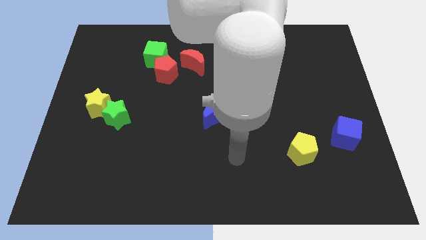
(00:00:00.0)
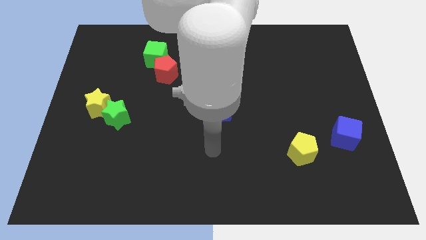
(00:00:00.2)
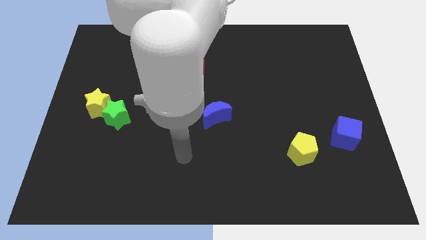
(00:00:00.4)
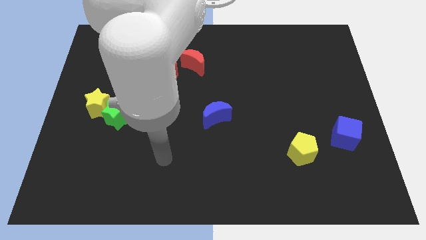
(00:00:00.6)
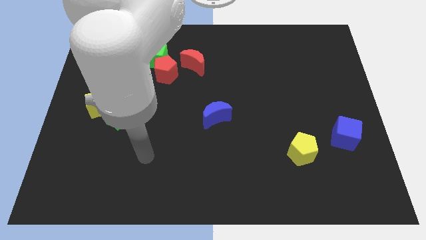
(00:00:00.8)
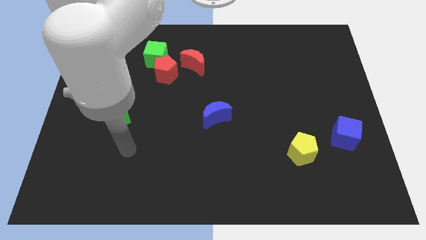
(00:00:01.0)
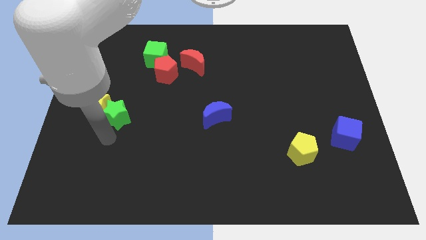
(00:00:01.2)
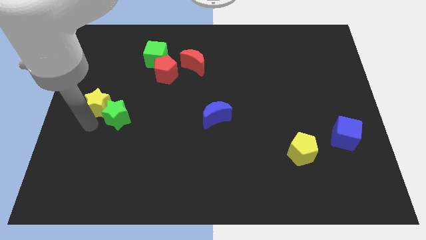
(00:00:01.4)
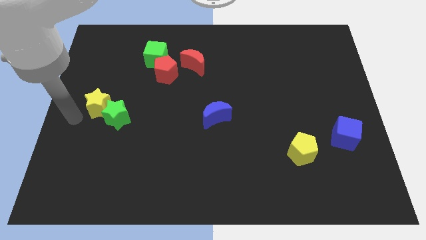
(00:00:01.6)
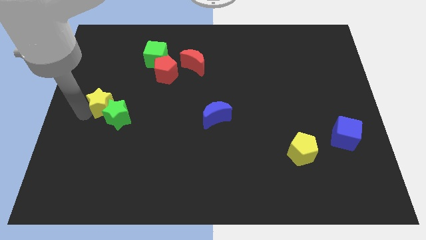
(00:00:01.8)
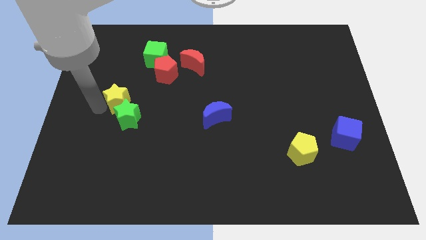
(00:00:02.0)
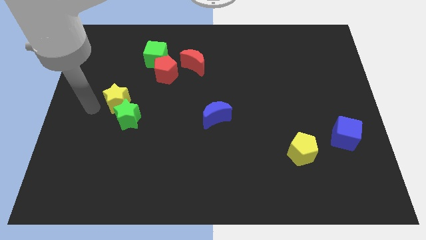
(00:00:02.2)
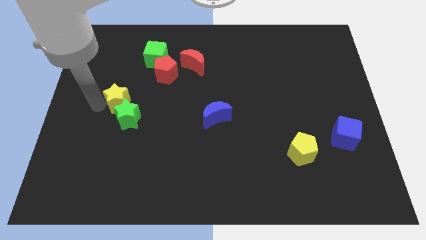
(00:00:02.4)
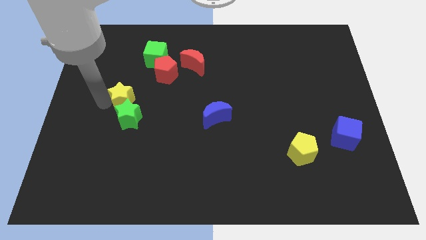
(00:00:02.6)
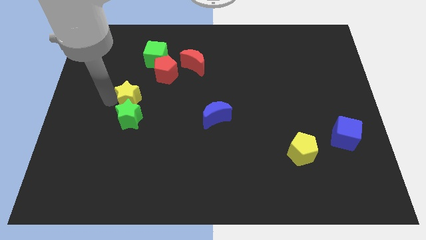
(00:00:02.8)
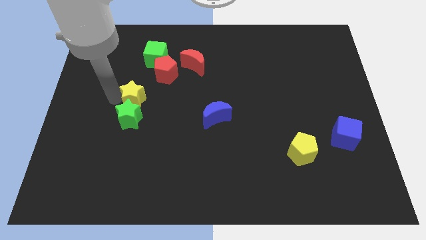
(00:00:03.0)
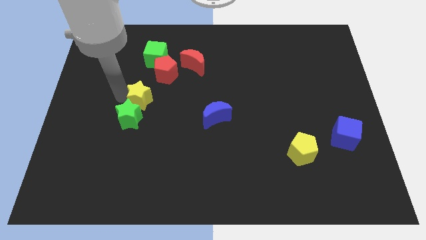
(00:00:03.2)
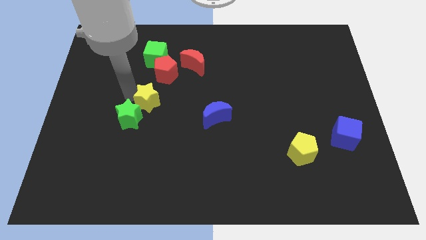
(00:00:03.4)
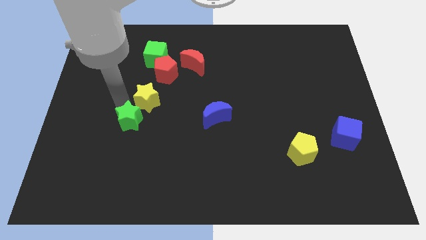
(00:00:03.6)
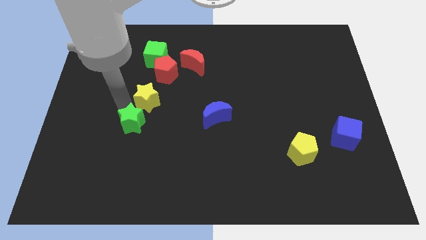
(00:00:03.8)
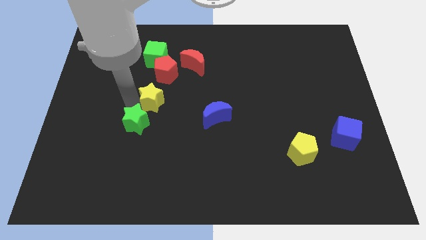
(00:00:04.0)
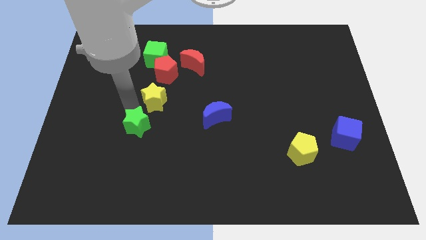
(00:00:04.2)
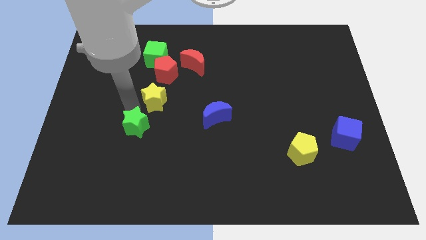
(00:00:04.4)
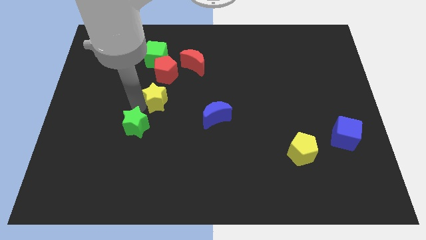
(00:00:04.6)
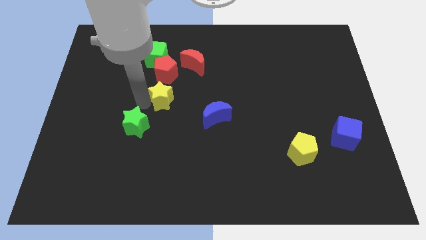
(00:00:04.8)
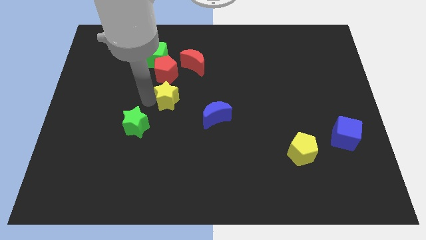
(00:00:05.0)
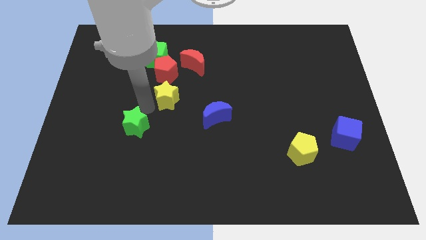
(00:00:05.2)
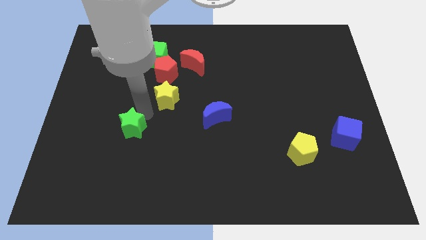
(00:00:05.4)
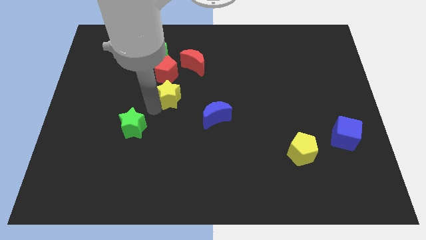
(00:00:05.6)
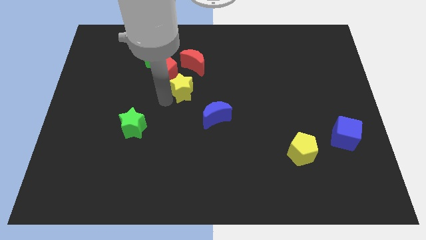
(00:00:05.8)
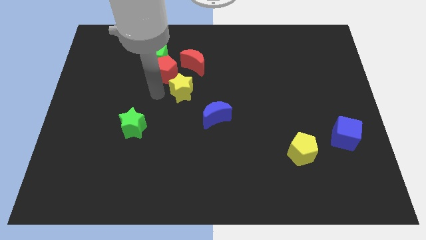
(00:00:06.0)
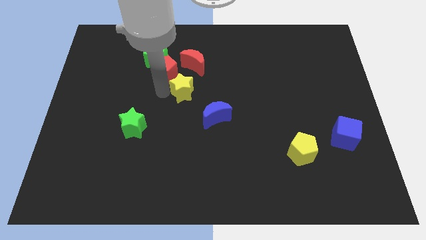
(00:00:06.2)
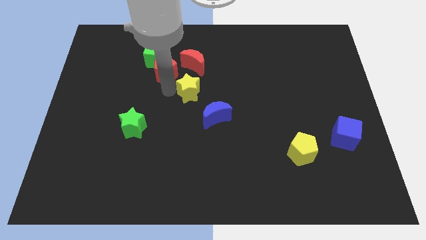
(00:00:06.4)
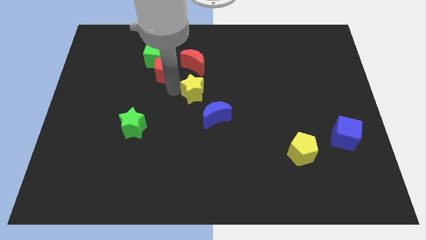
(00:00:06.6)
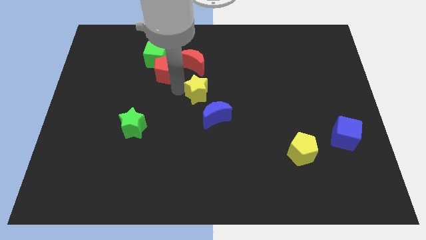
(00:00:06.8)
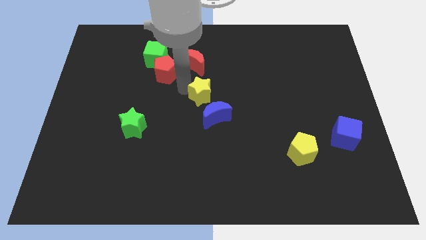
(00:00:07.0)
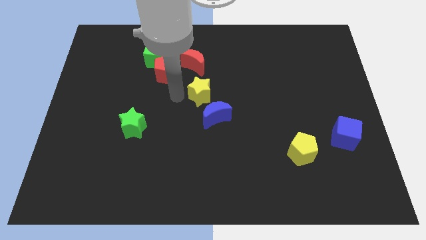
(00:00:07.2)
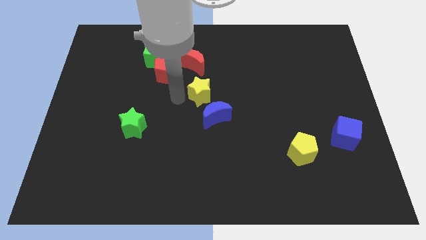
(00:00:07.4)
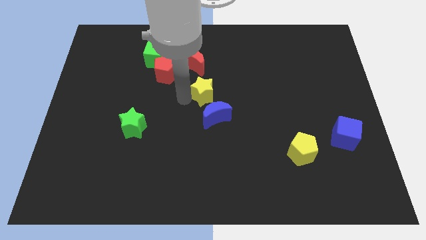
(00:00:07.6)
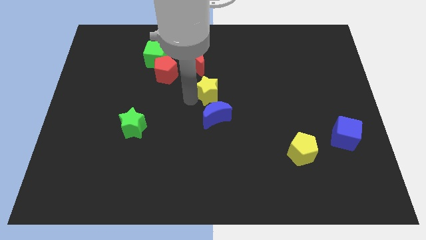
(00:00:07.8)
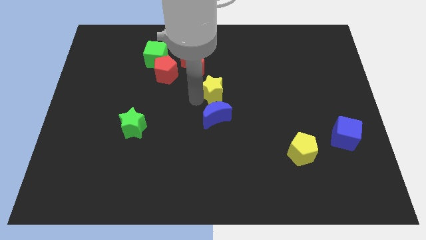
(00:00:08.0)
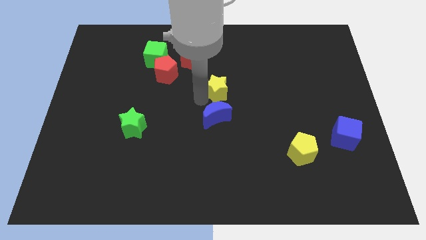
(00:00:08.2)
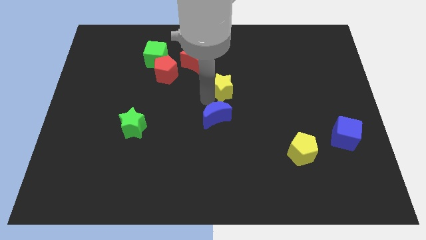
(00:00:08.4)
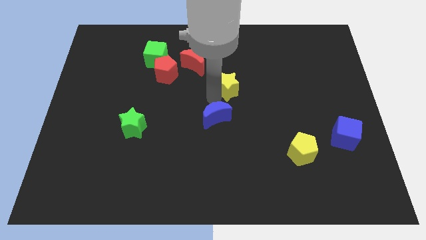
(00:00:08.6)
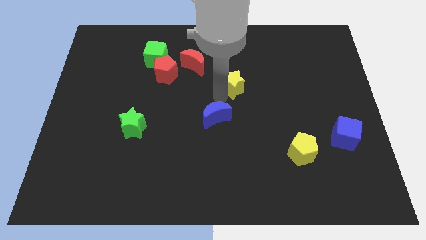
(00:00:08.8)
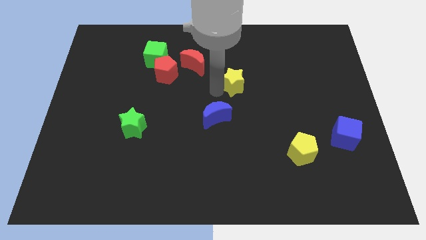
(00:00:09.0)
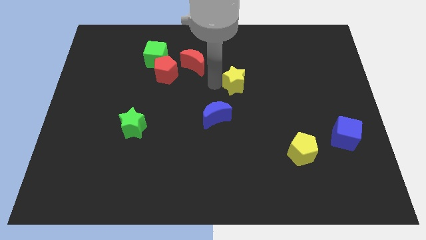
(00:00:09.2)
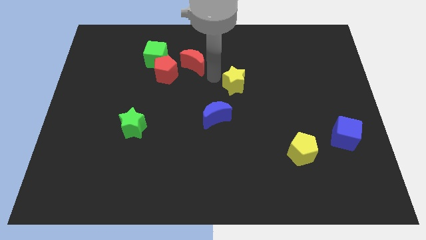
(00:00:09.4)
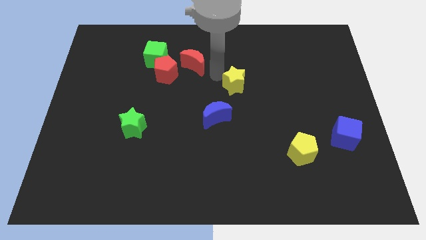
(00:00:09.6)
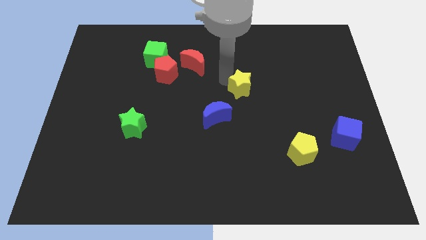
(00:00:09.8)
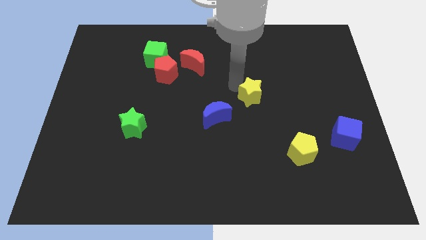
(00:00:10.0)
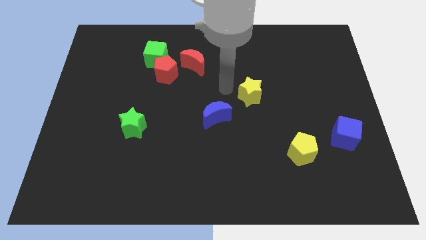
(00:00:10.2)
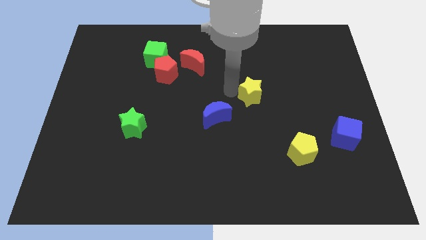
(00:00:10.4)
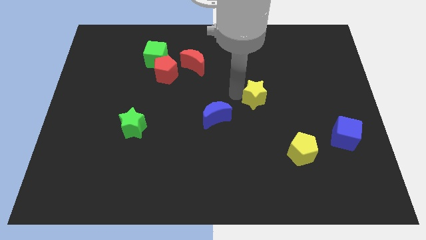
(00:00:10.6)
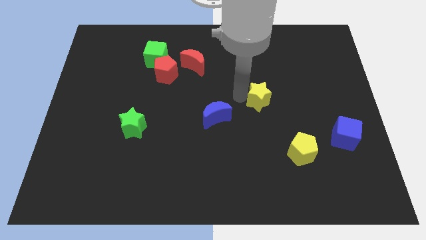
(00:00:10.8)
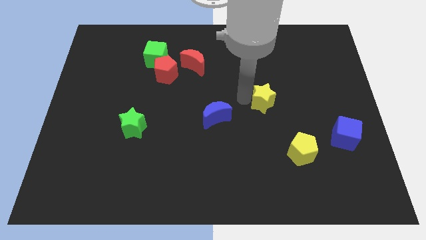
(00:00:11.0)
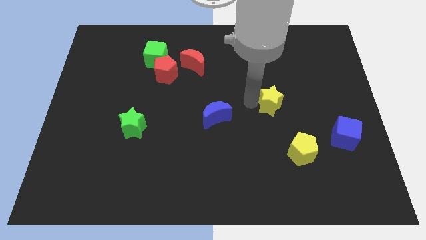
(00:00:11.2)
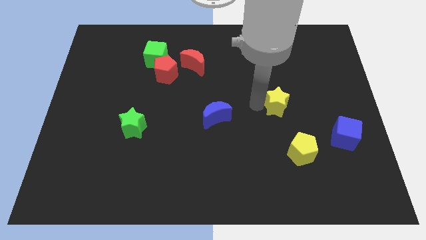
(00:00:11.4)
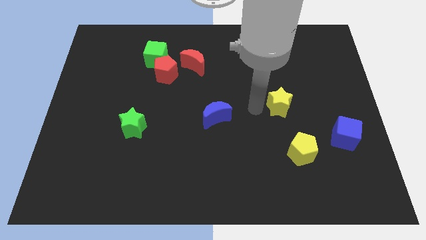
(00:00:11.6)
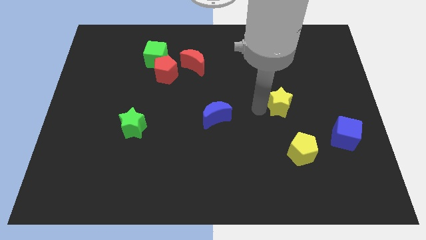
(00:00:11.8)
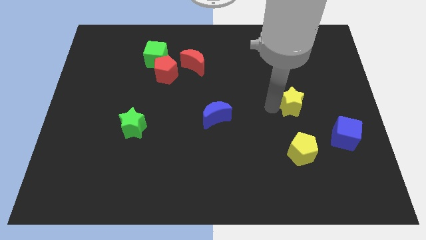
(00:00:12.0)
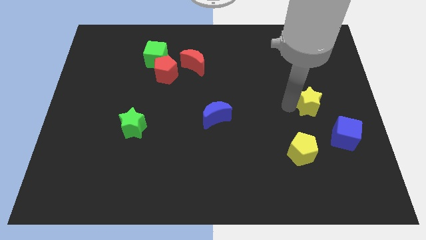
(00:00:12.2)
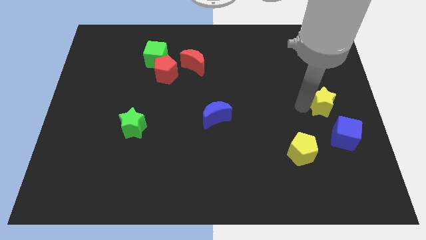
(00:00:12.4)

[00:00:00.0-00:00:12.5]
put the yellow star to the right side of the board
